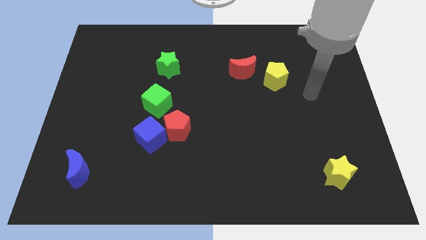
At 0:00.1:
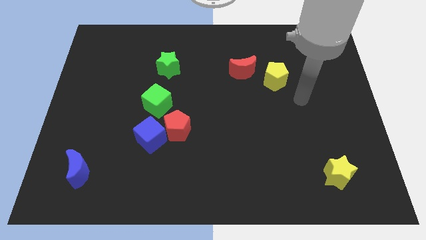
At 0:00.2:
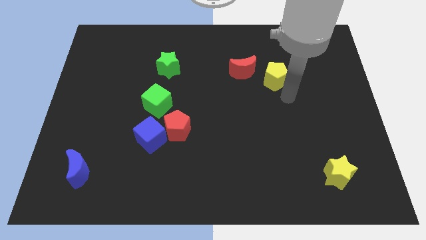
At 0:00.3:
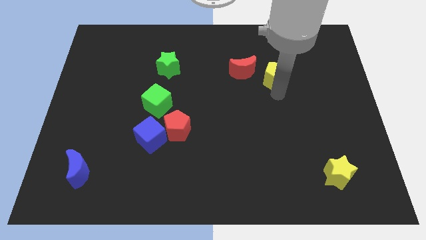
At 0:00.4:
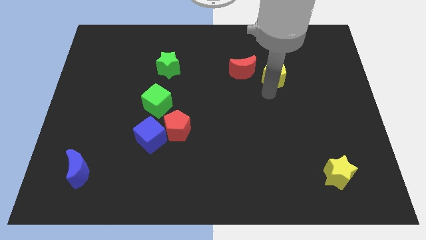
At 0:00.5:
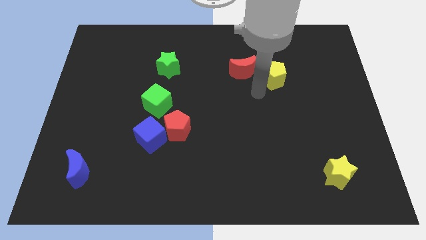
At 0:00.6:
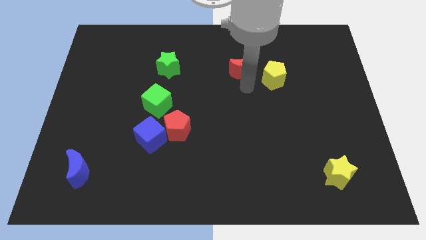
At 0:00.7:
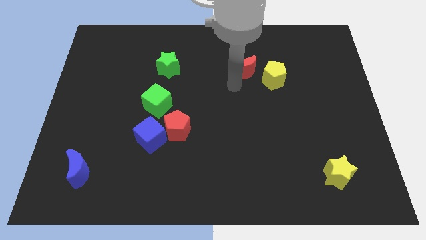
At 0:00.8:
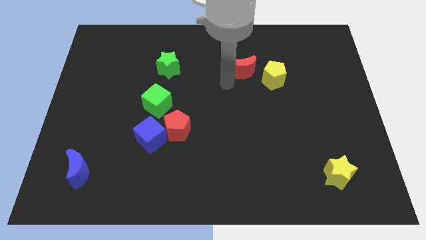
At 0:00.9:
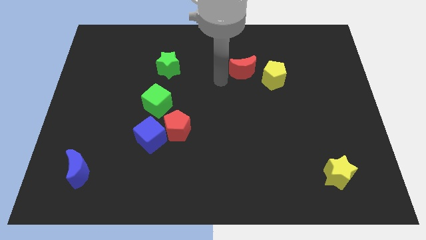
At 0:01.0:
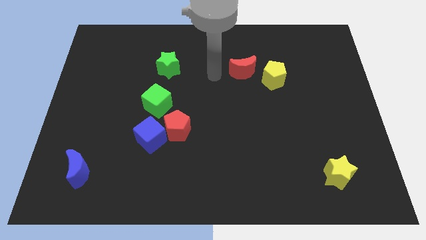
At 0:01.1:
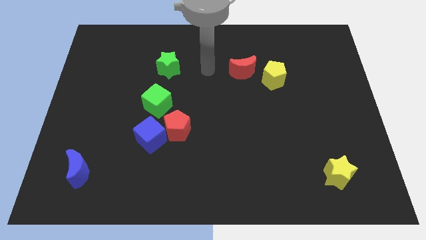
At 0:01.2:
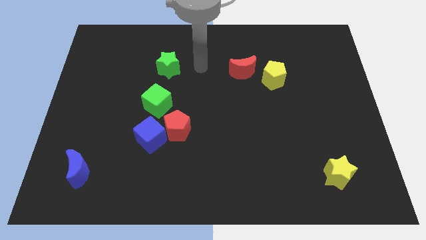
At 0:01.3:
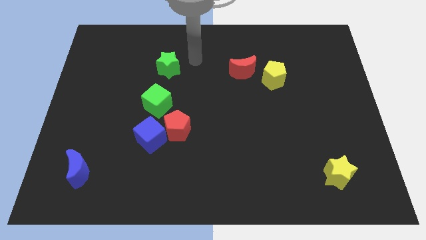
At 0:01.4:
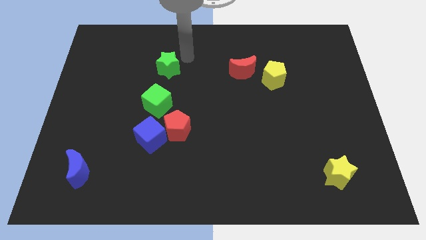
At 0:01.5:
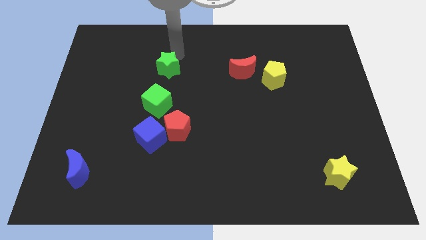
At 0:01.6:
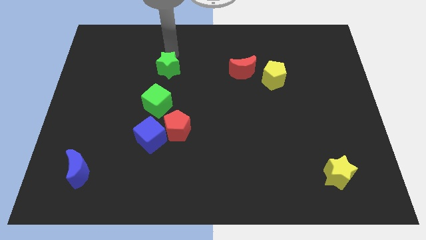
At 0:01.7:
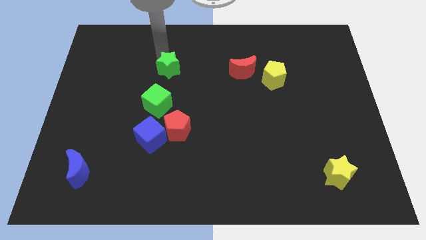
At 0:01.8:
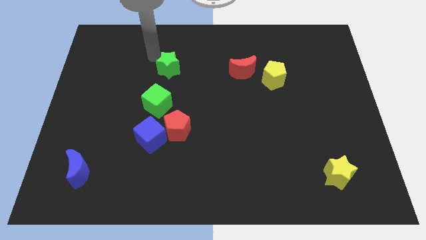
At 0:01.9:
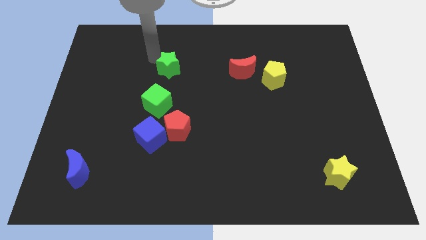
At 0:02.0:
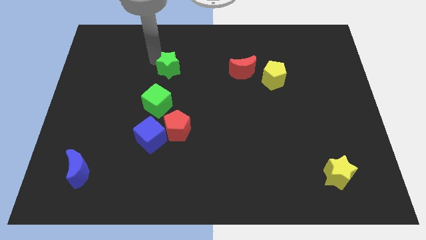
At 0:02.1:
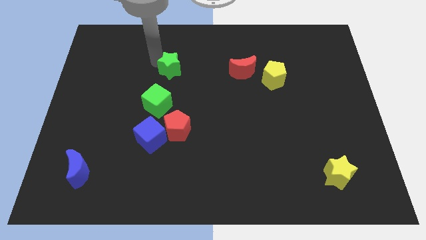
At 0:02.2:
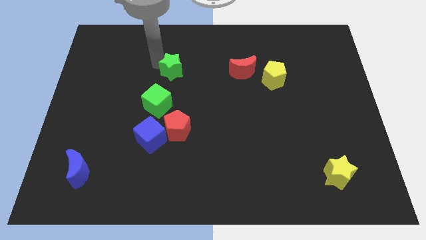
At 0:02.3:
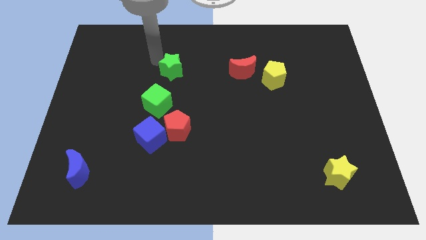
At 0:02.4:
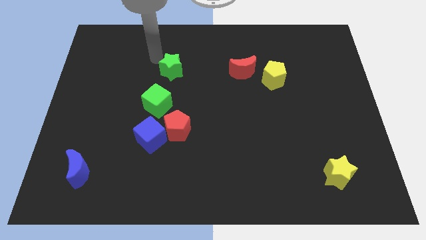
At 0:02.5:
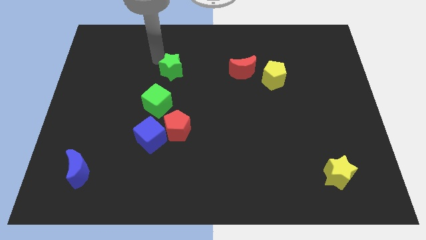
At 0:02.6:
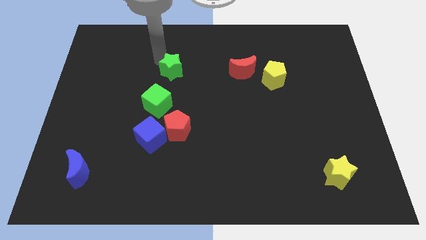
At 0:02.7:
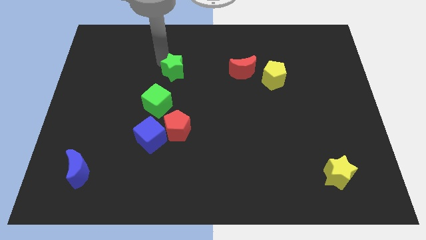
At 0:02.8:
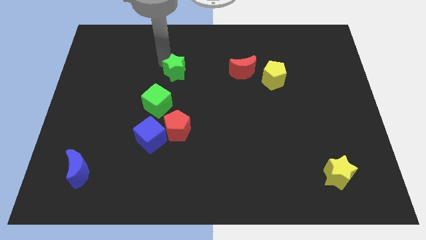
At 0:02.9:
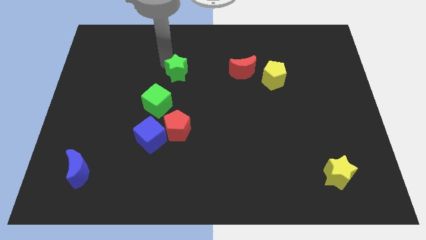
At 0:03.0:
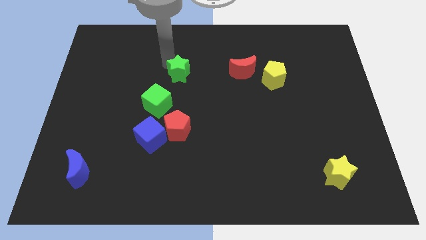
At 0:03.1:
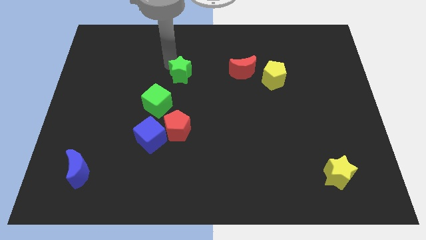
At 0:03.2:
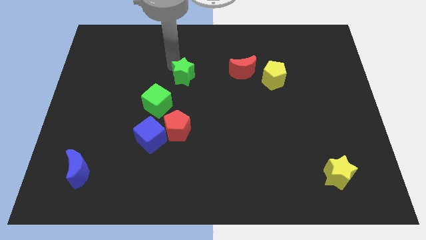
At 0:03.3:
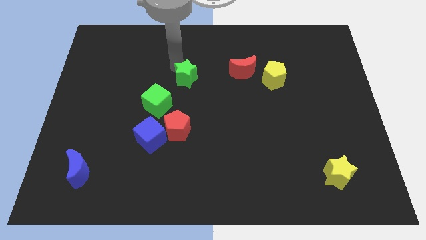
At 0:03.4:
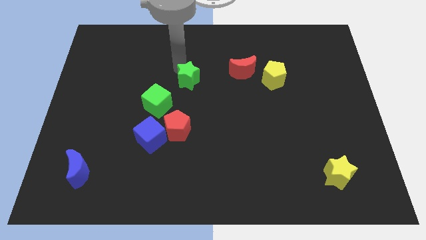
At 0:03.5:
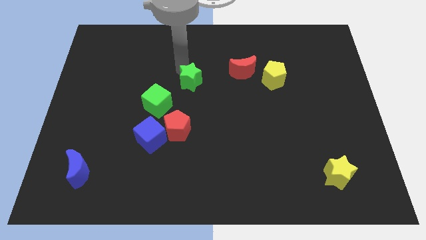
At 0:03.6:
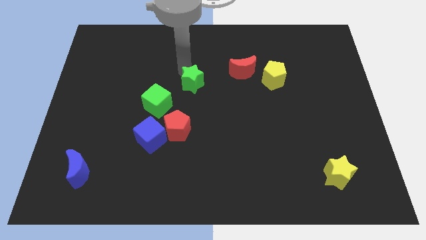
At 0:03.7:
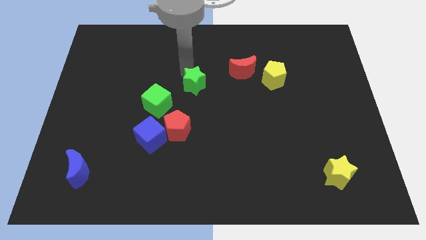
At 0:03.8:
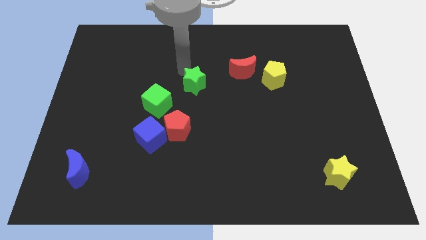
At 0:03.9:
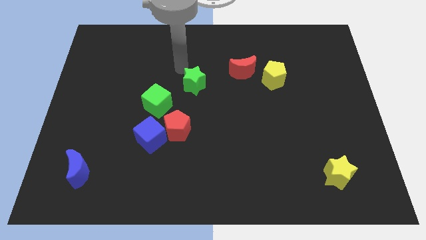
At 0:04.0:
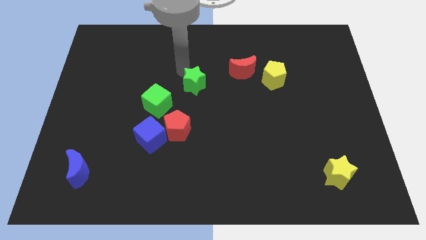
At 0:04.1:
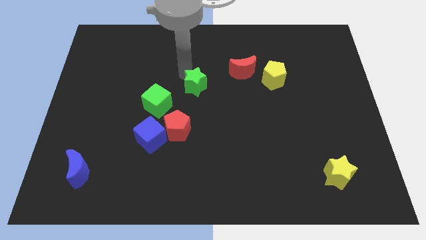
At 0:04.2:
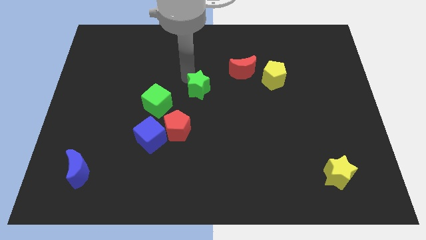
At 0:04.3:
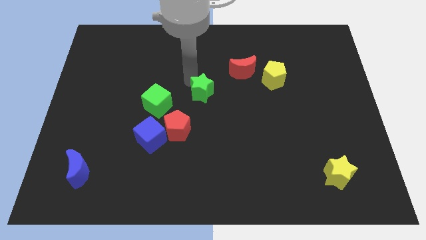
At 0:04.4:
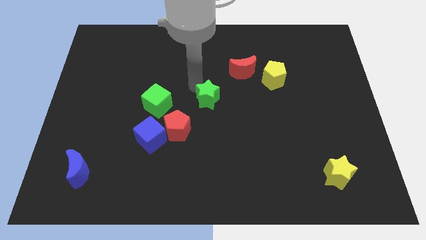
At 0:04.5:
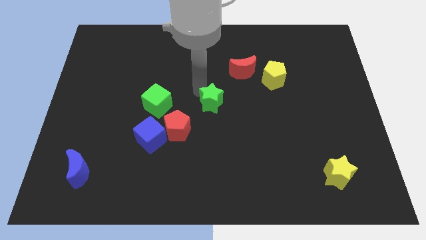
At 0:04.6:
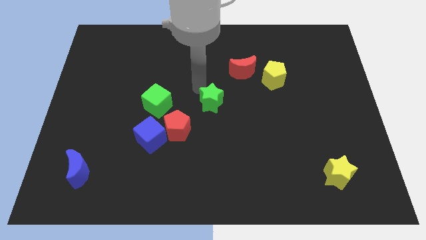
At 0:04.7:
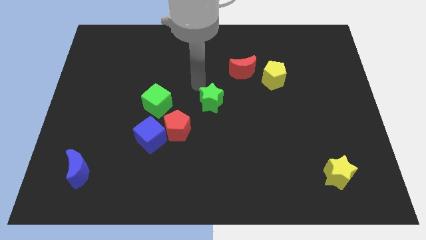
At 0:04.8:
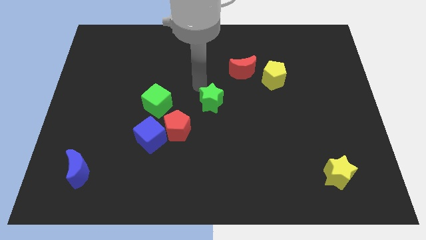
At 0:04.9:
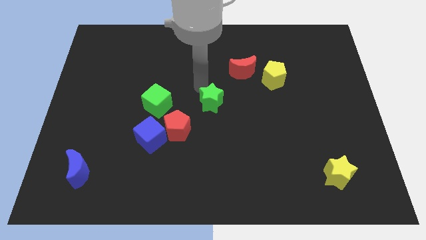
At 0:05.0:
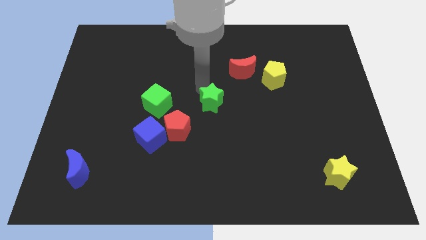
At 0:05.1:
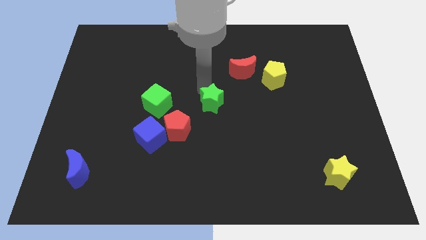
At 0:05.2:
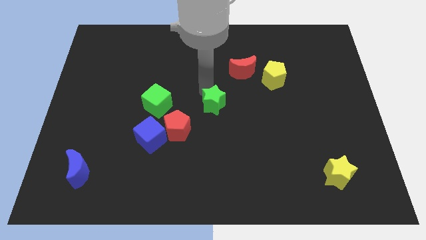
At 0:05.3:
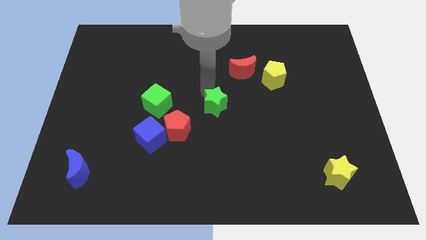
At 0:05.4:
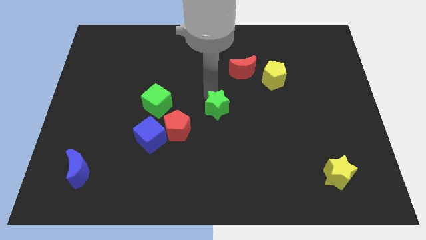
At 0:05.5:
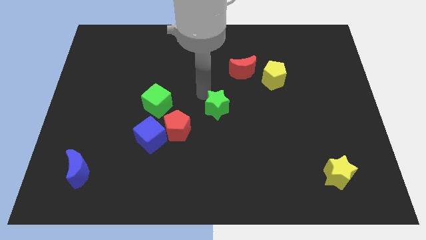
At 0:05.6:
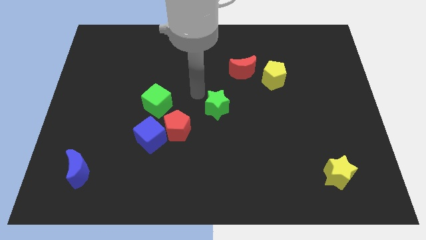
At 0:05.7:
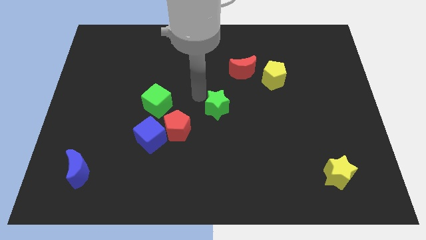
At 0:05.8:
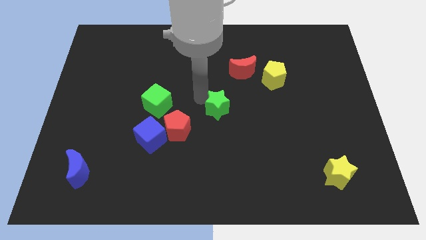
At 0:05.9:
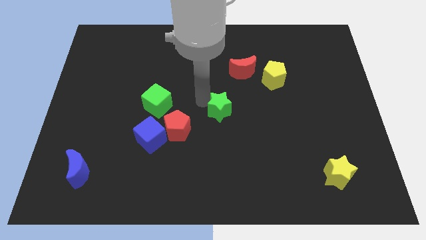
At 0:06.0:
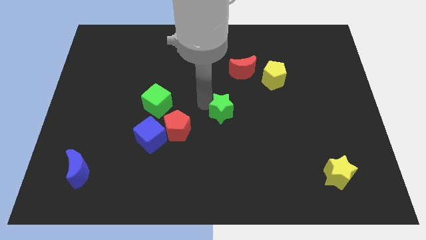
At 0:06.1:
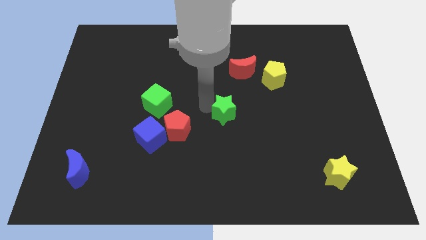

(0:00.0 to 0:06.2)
push the green star downwards and then right

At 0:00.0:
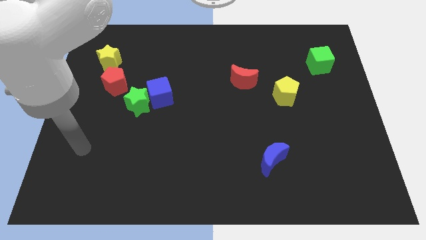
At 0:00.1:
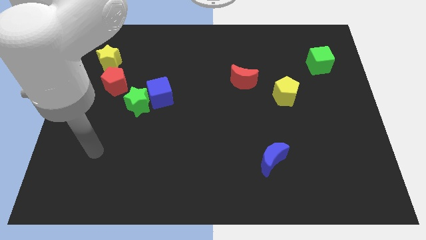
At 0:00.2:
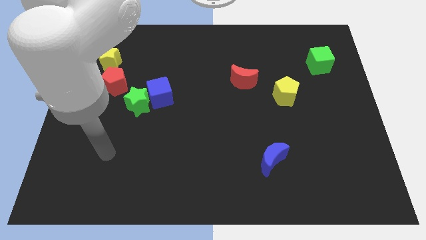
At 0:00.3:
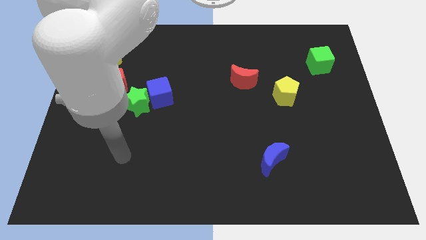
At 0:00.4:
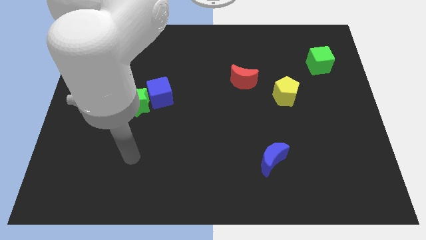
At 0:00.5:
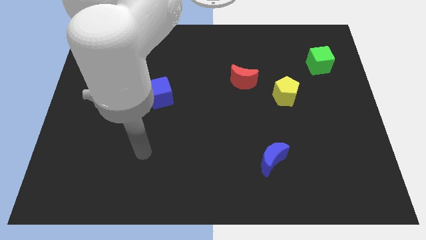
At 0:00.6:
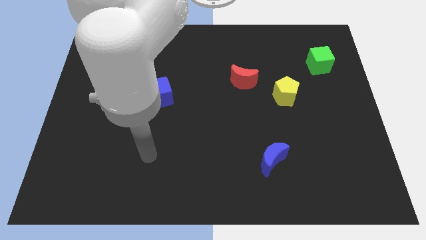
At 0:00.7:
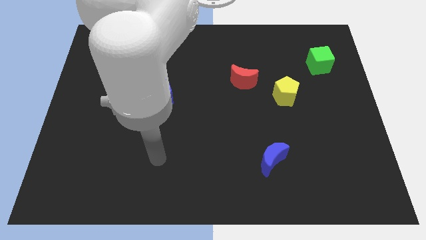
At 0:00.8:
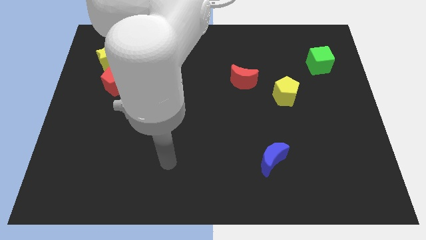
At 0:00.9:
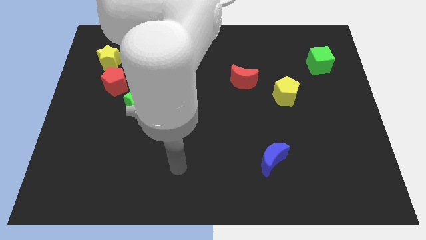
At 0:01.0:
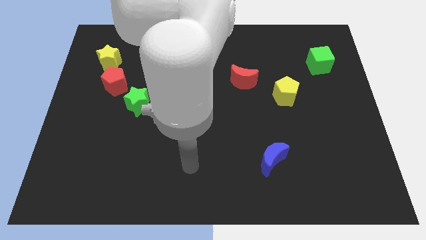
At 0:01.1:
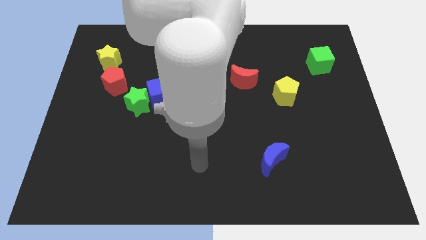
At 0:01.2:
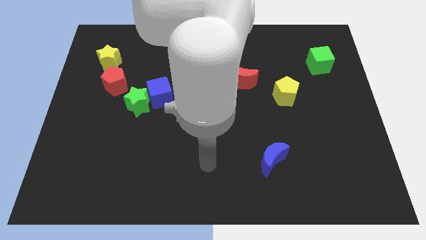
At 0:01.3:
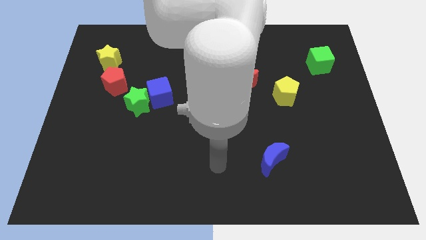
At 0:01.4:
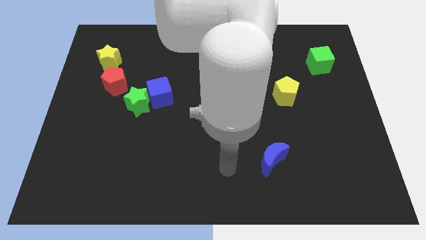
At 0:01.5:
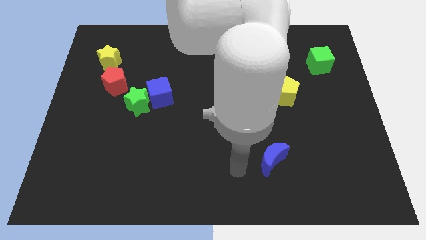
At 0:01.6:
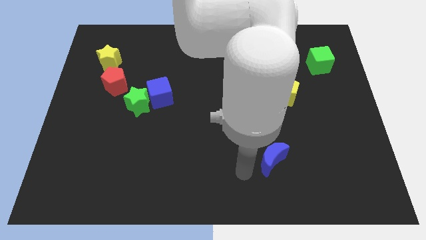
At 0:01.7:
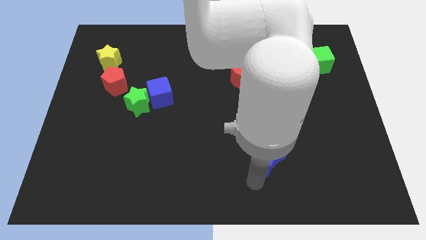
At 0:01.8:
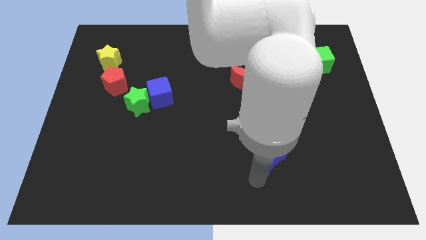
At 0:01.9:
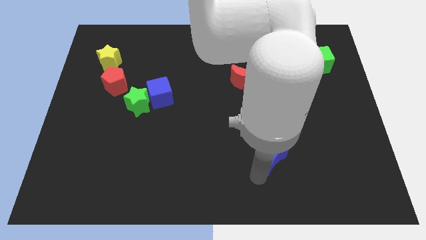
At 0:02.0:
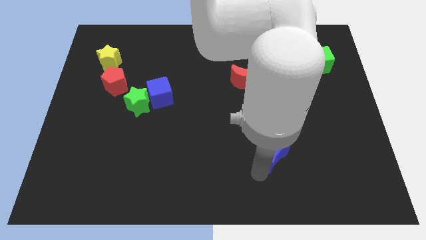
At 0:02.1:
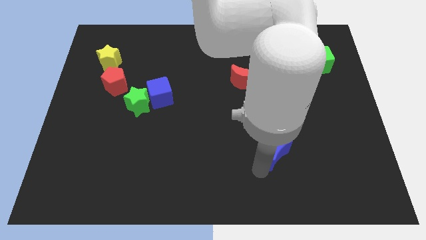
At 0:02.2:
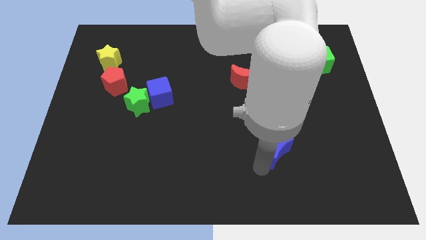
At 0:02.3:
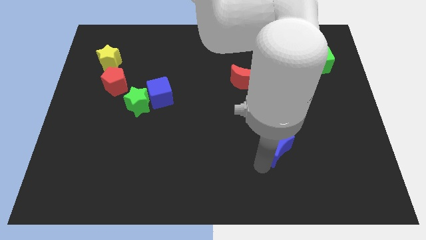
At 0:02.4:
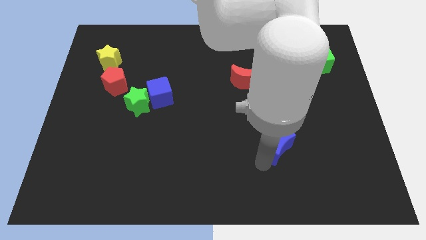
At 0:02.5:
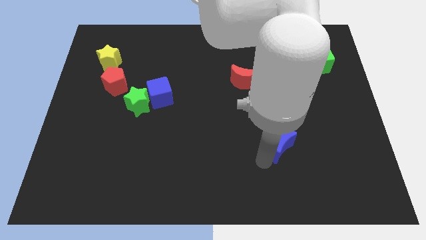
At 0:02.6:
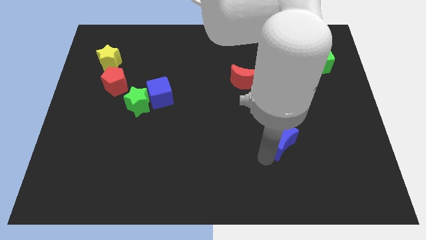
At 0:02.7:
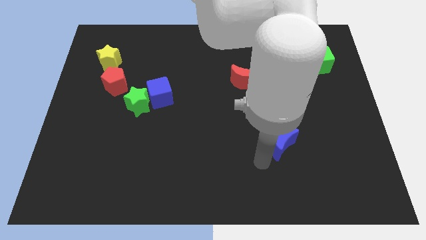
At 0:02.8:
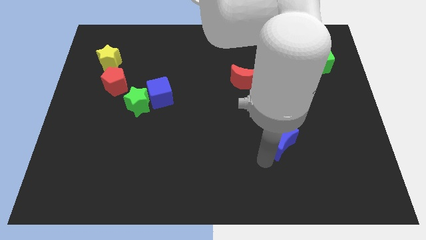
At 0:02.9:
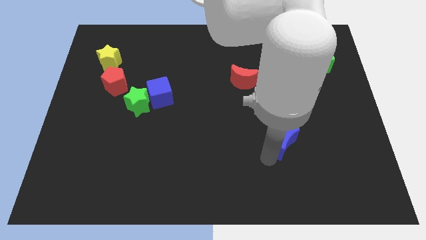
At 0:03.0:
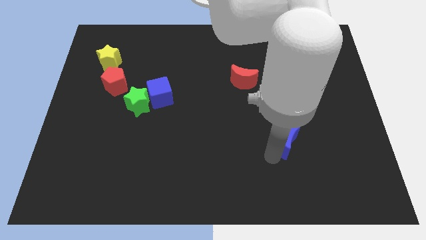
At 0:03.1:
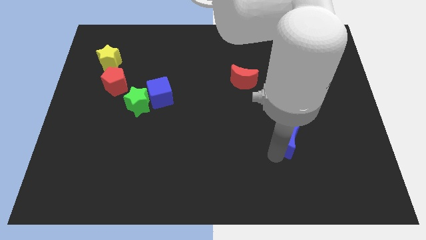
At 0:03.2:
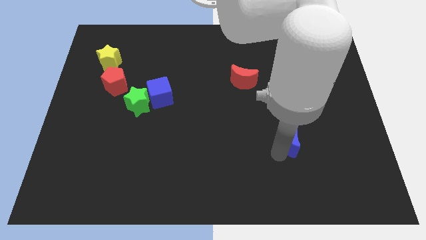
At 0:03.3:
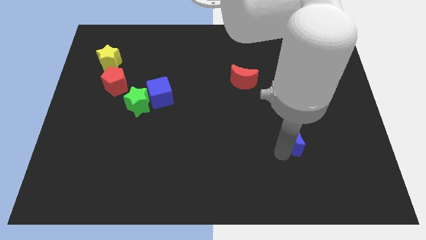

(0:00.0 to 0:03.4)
slightly push the blue moon upwards and right diagonally
